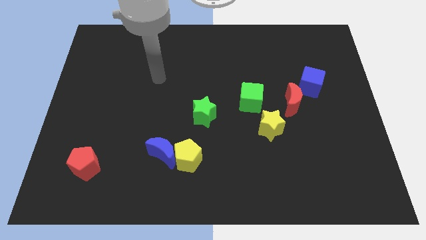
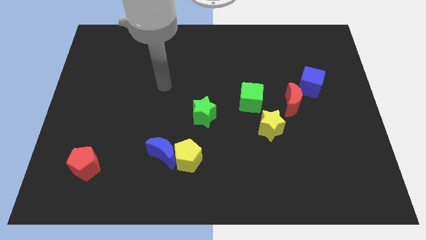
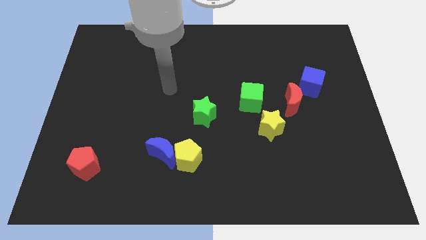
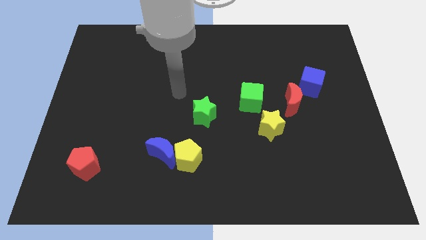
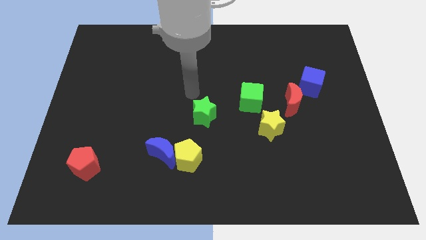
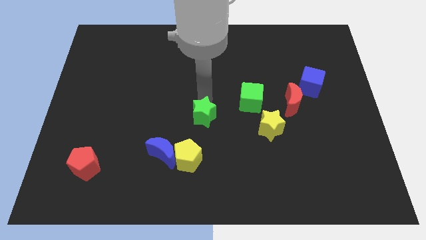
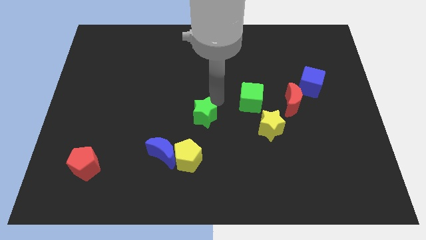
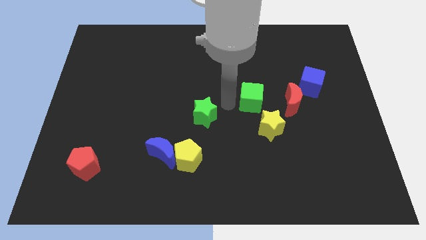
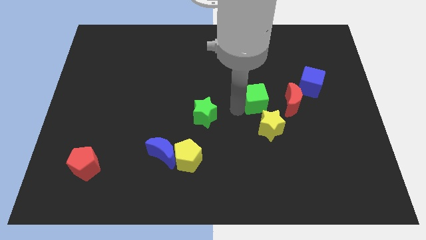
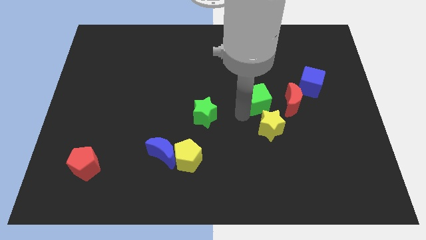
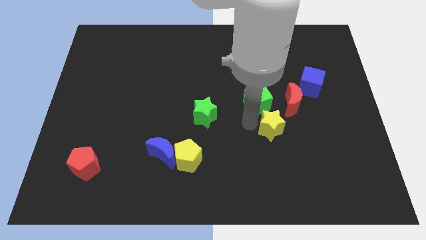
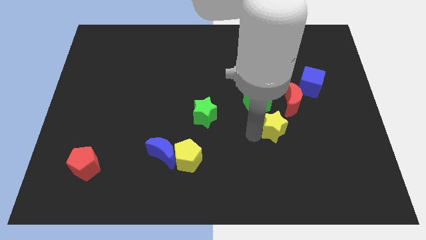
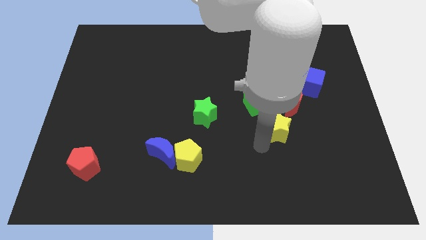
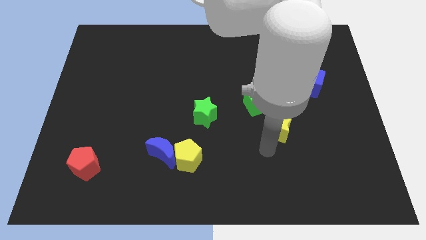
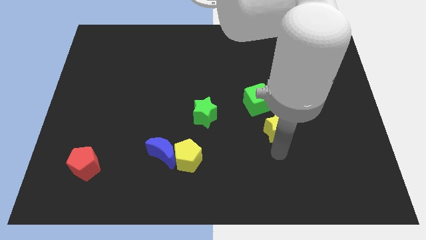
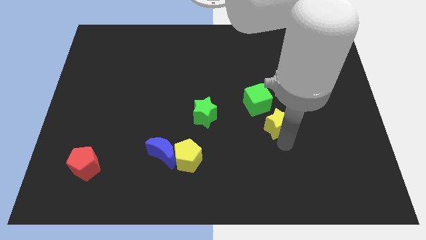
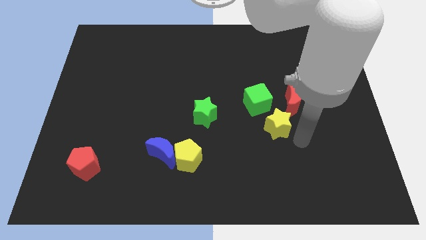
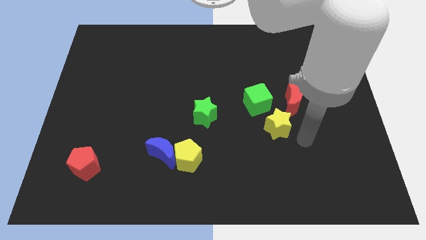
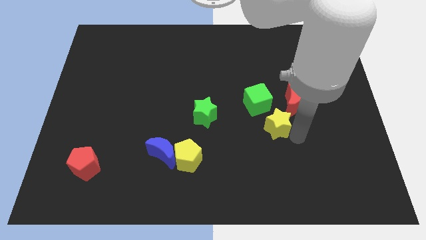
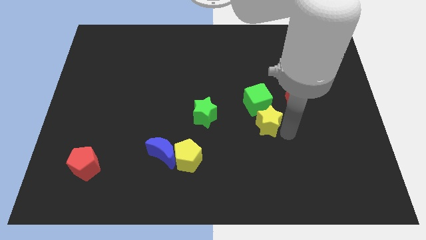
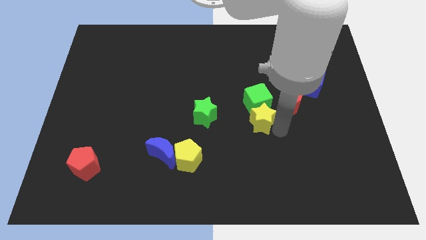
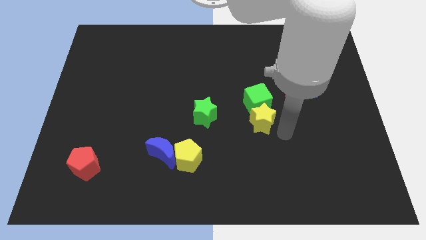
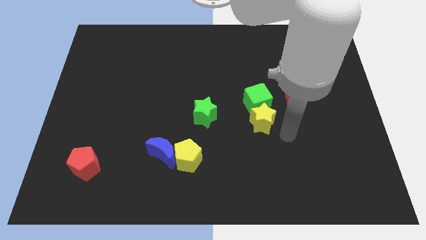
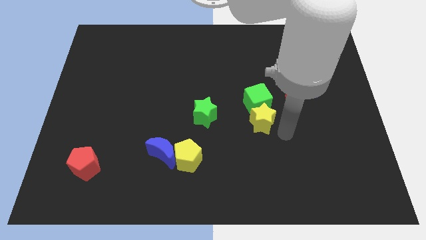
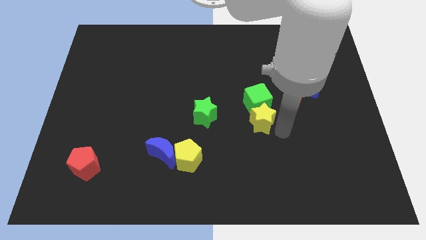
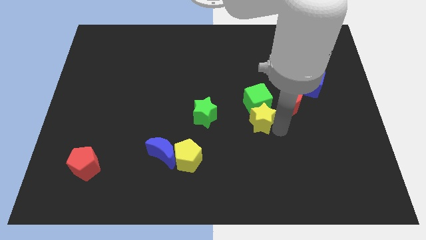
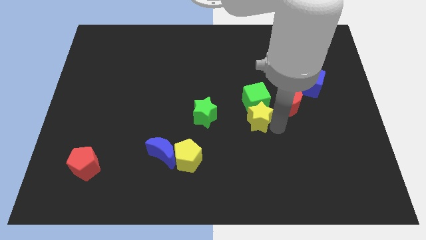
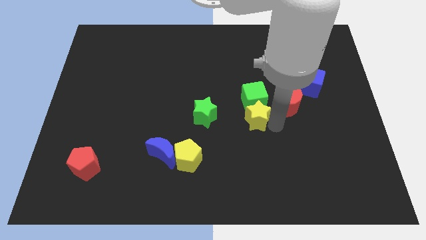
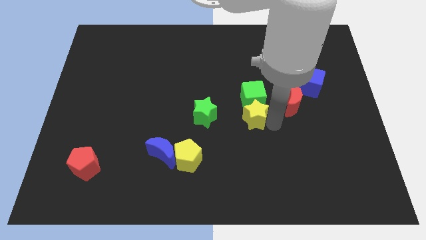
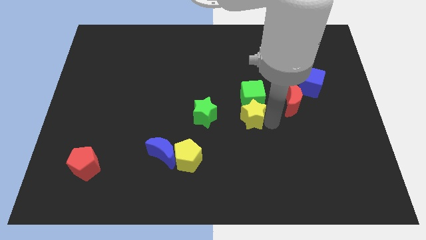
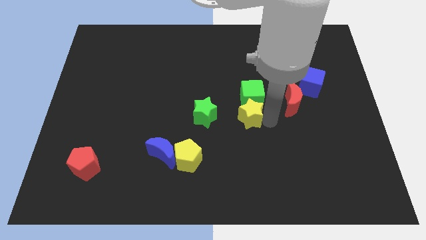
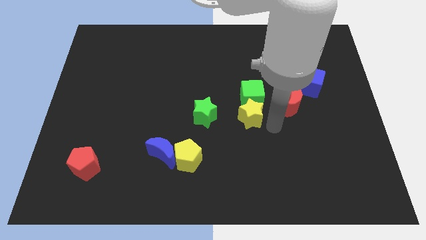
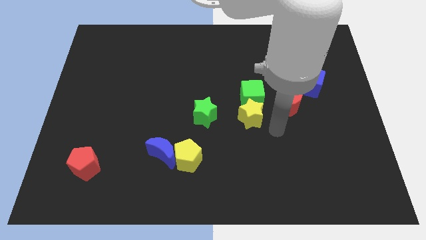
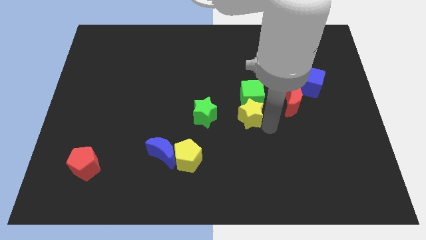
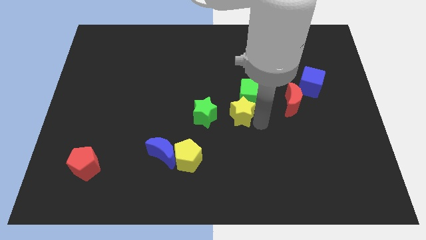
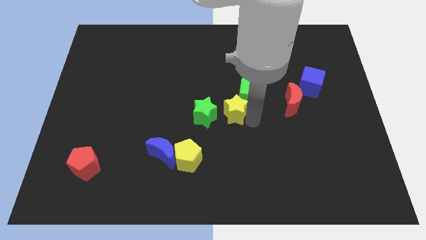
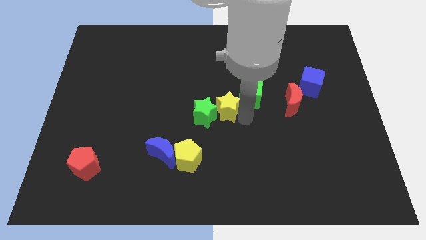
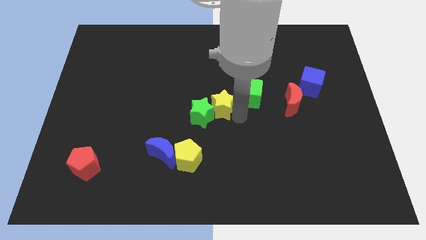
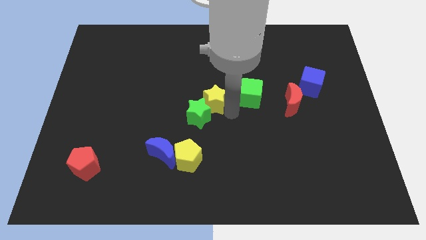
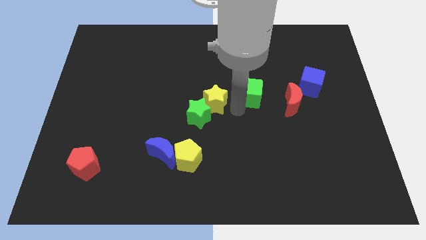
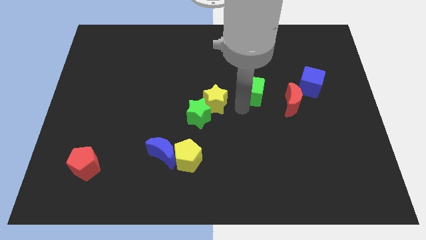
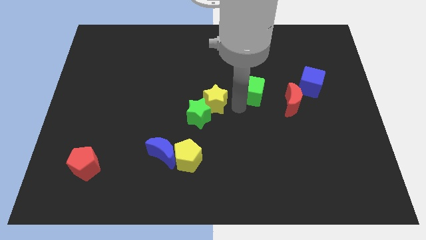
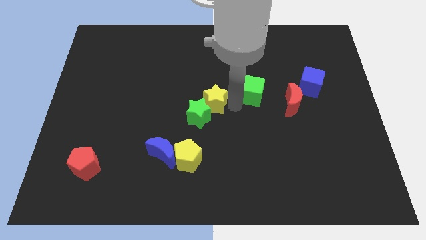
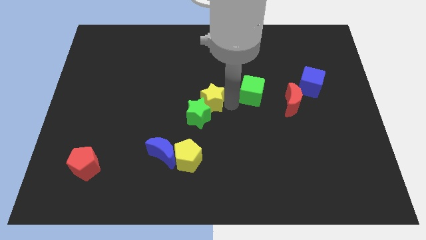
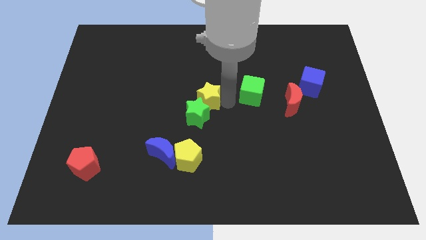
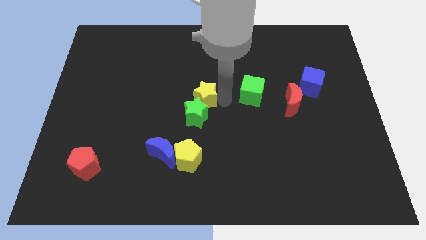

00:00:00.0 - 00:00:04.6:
push the yellow star to the top left side of the green star

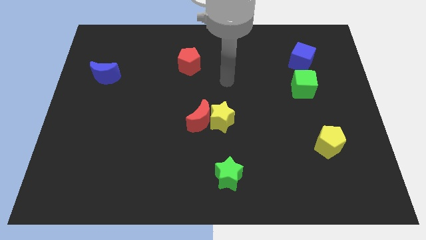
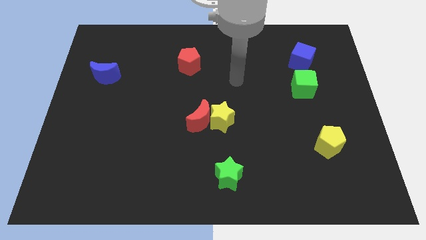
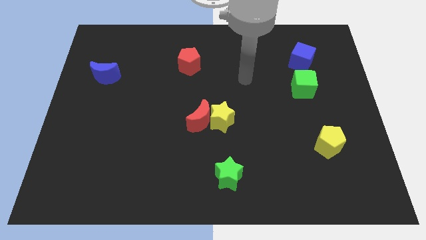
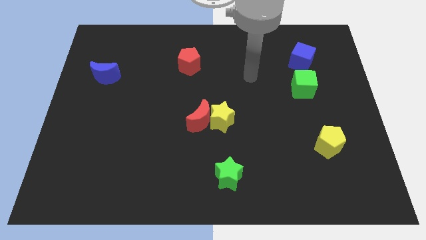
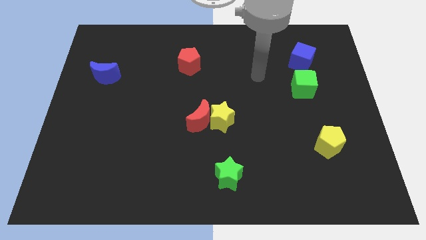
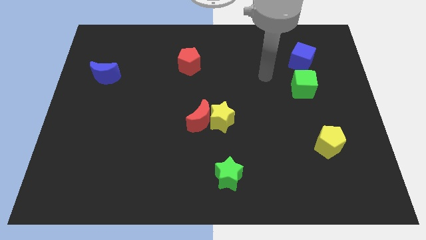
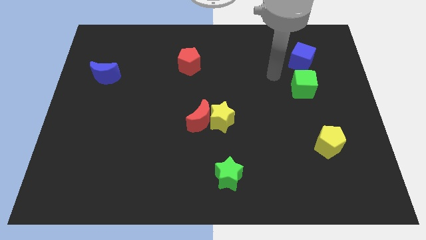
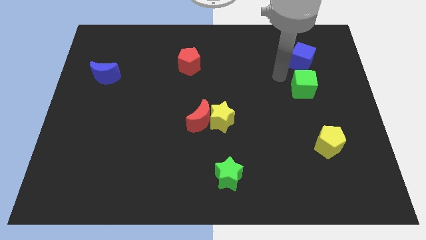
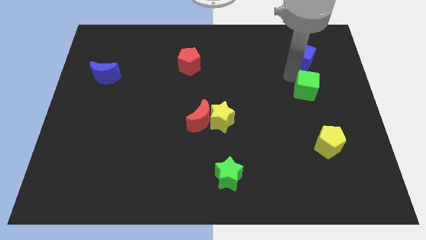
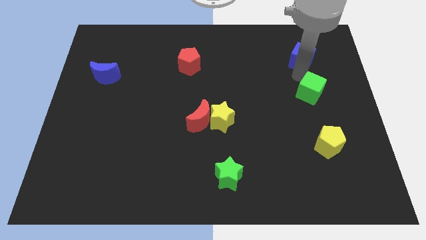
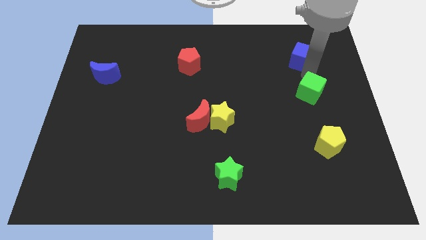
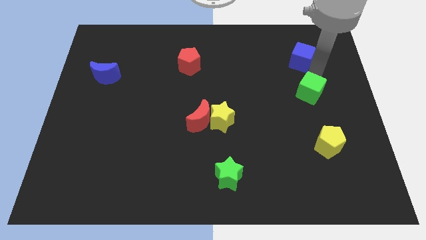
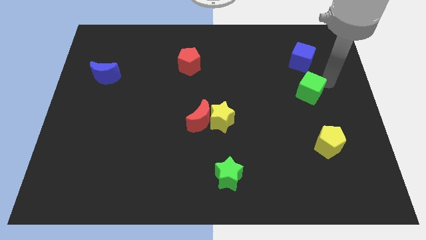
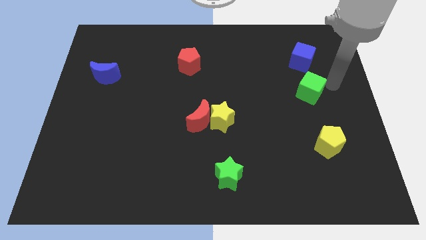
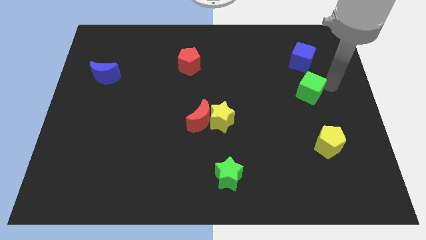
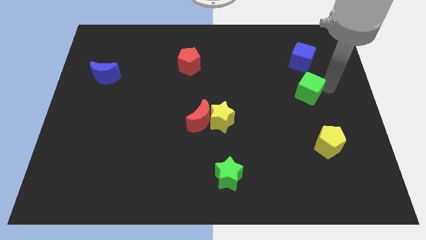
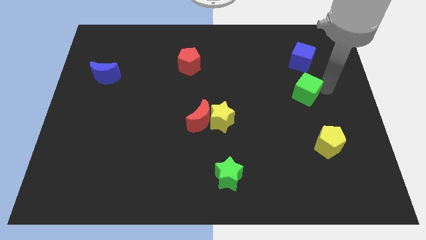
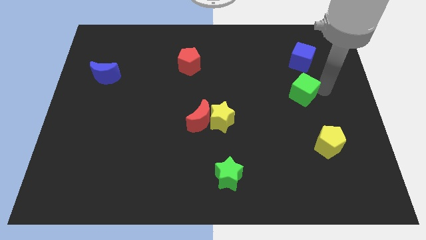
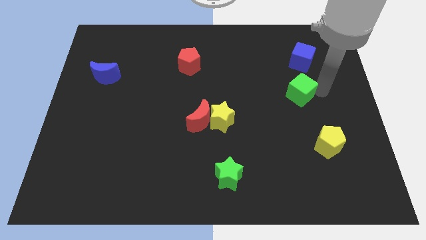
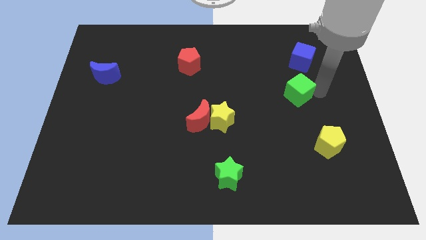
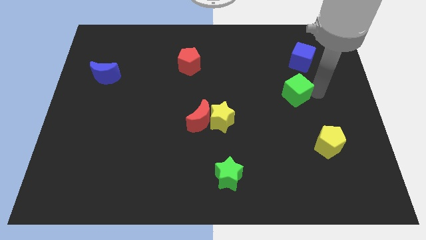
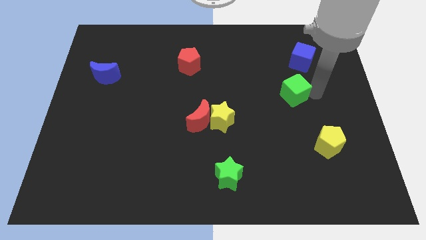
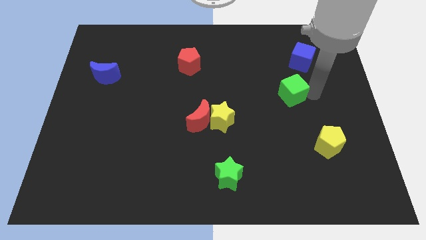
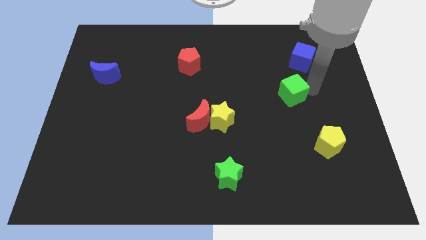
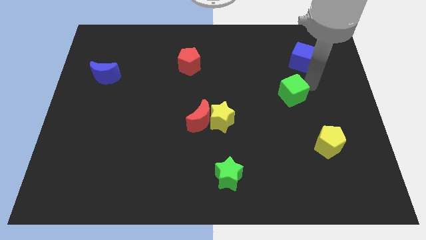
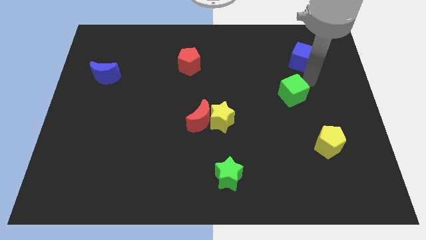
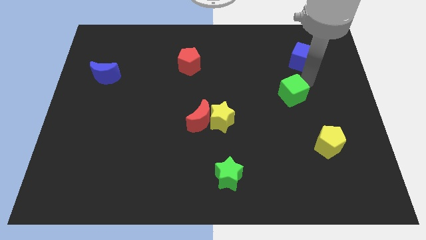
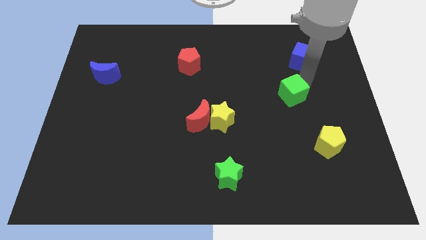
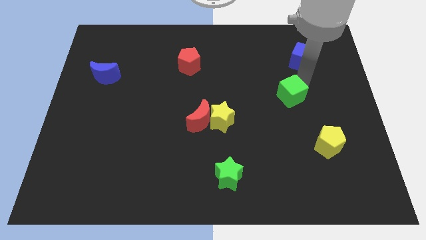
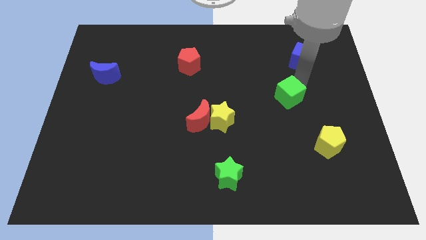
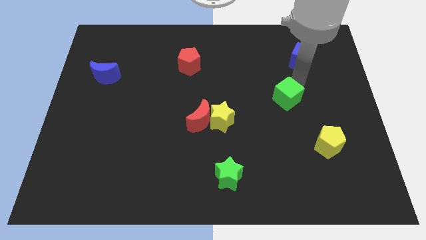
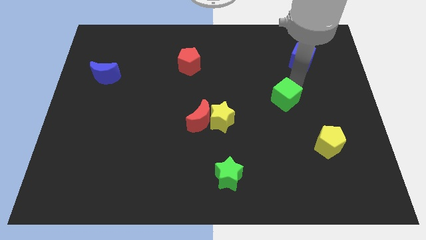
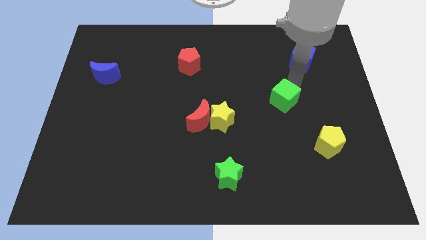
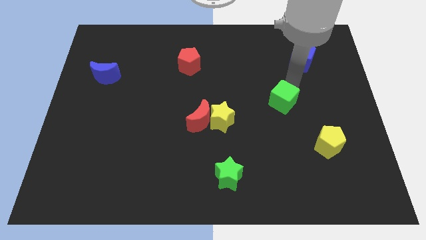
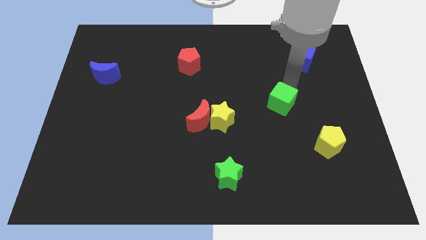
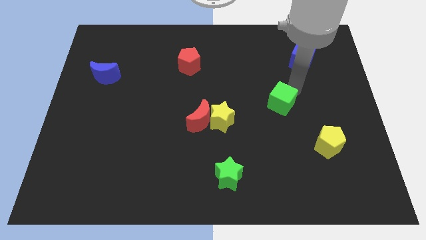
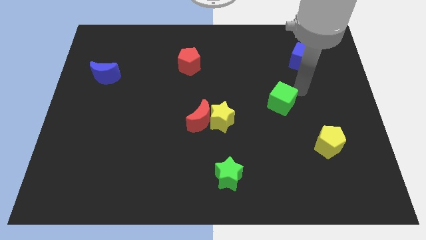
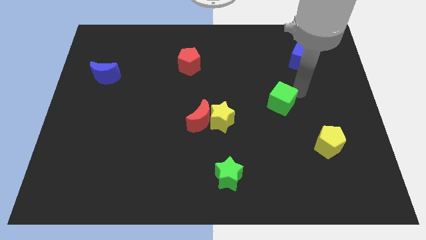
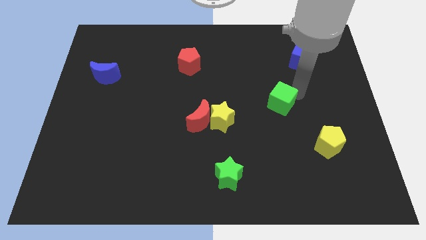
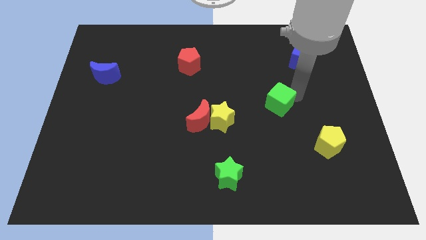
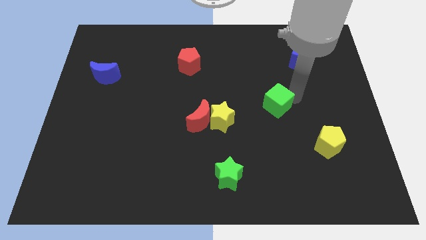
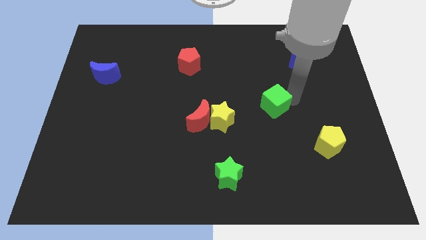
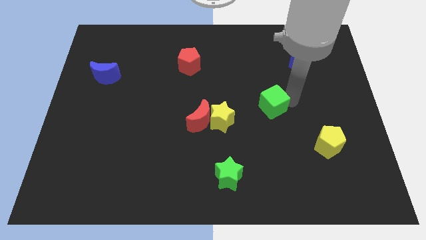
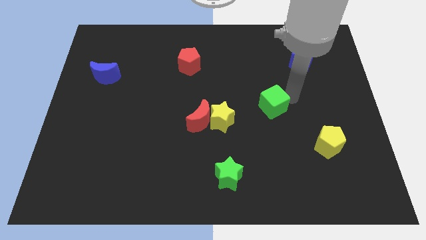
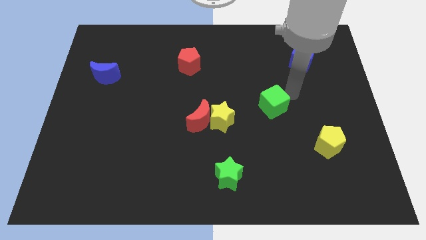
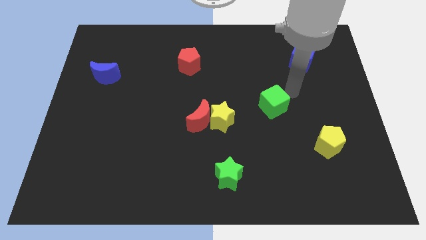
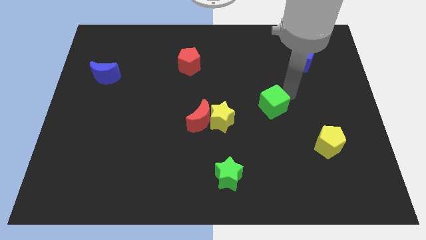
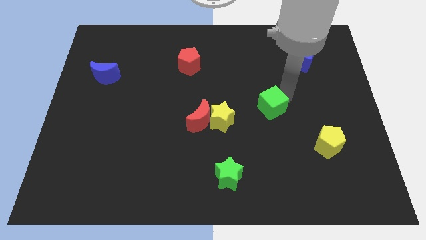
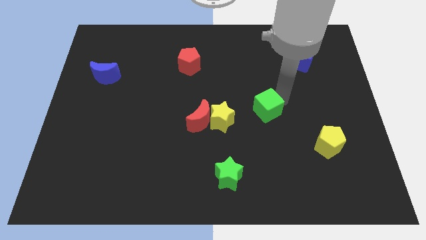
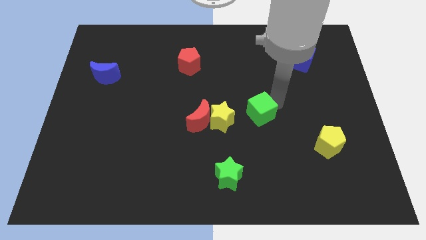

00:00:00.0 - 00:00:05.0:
slide the green cube right of the red moon
